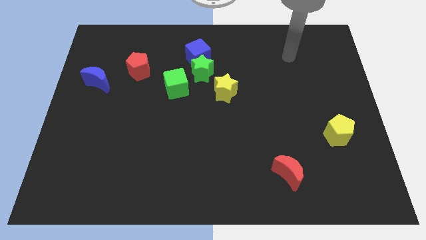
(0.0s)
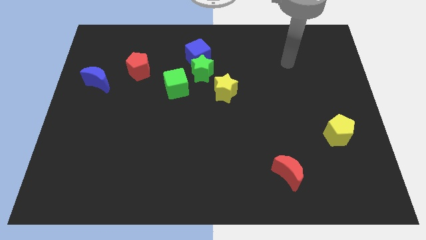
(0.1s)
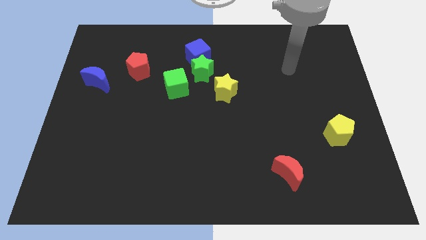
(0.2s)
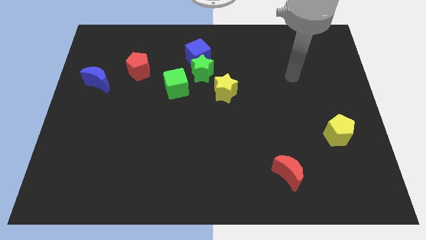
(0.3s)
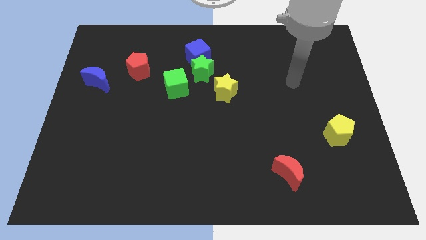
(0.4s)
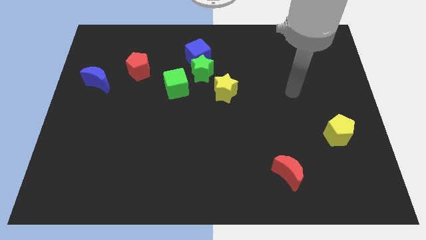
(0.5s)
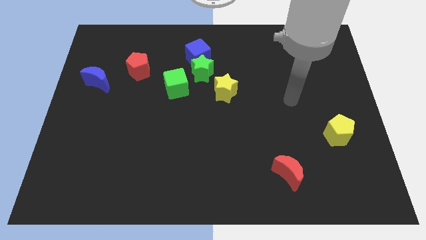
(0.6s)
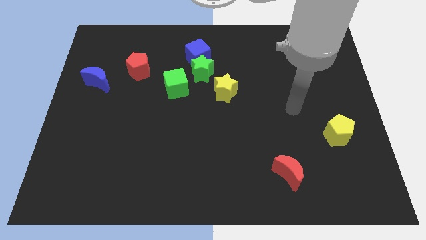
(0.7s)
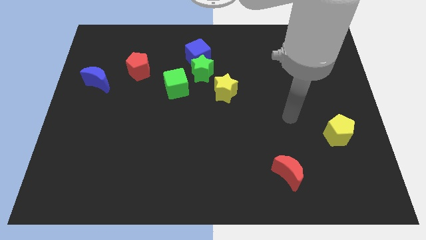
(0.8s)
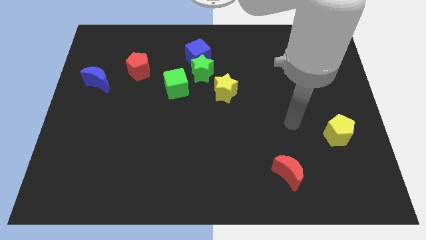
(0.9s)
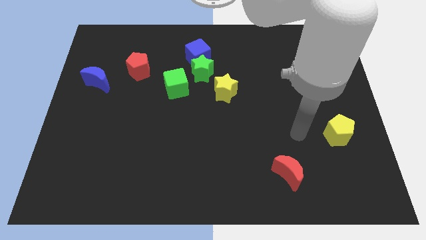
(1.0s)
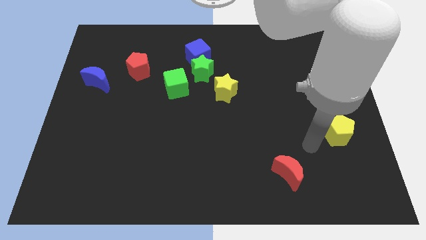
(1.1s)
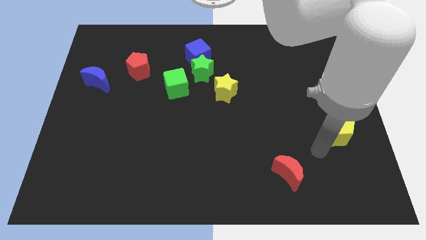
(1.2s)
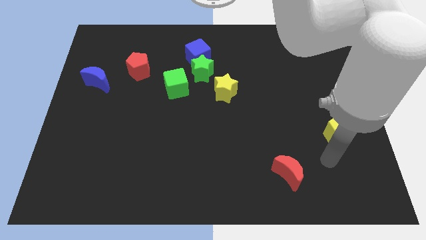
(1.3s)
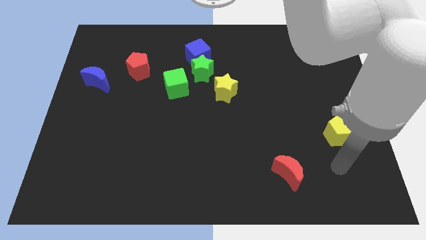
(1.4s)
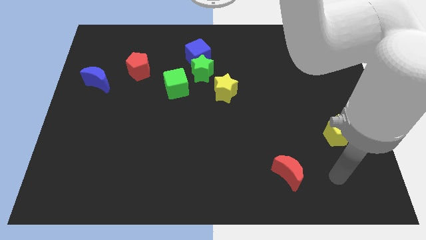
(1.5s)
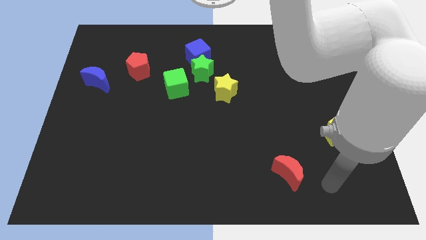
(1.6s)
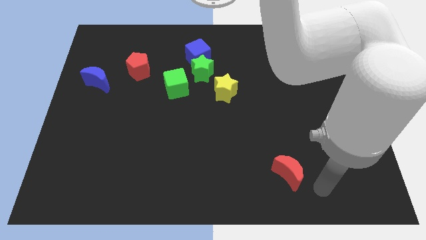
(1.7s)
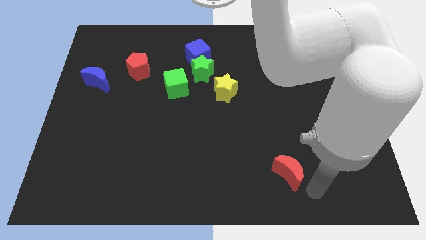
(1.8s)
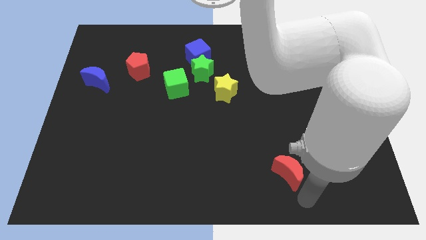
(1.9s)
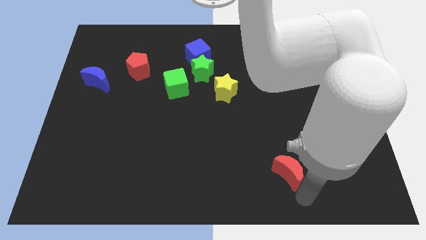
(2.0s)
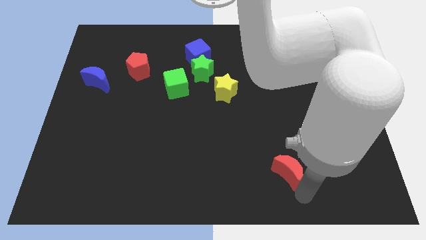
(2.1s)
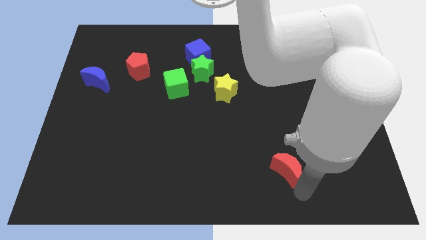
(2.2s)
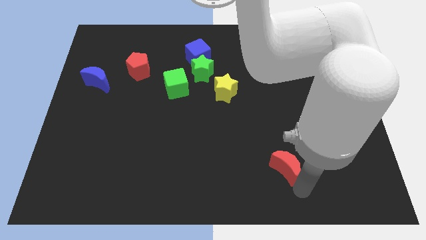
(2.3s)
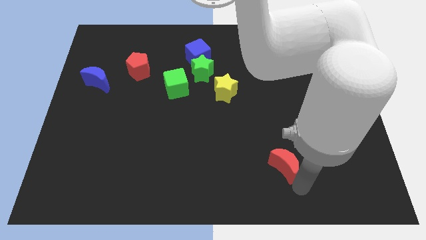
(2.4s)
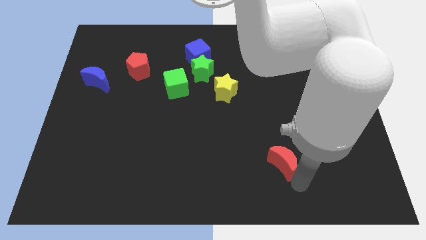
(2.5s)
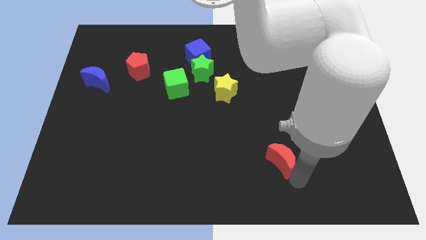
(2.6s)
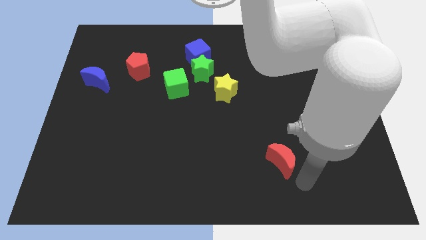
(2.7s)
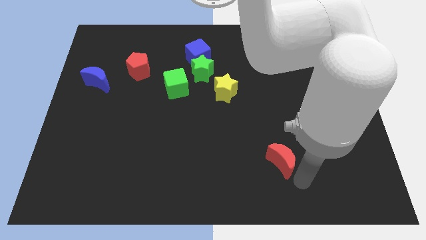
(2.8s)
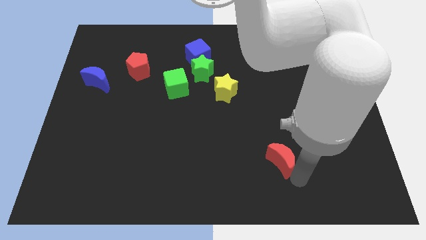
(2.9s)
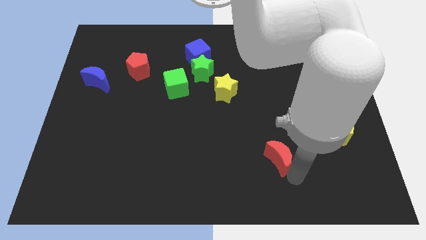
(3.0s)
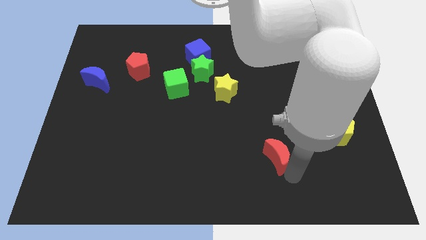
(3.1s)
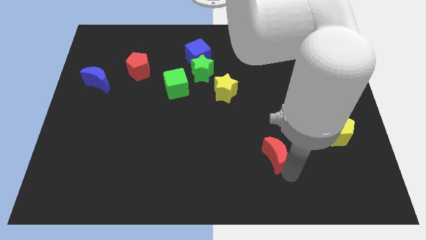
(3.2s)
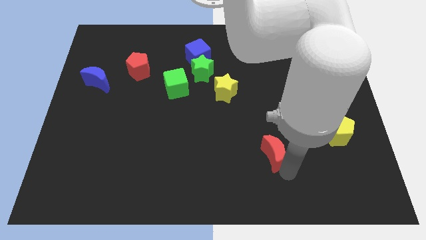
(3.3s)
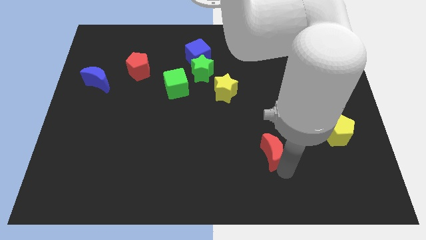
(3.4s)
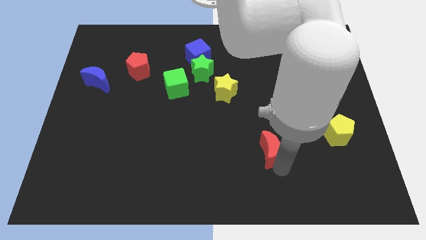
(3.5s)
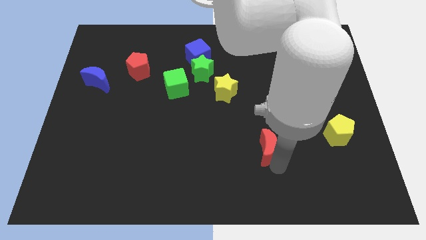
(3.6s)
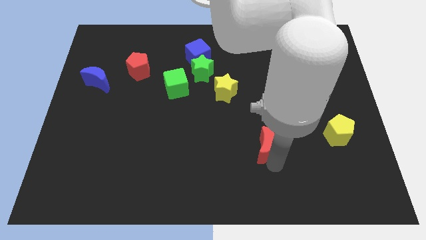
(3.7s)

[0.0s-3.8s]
push the red moon diagonally up and to the left slightly

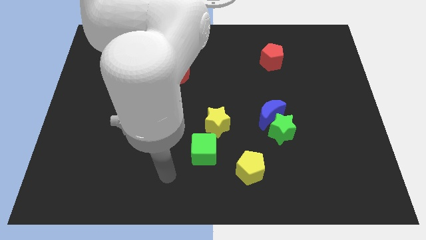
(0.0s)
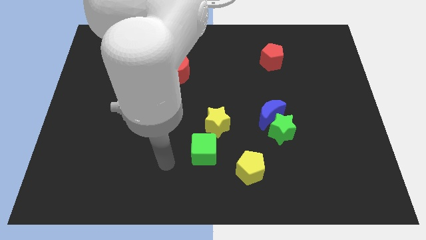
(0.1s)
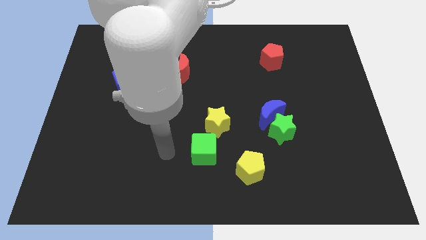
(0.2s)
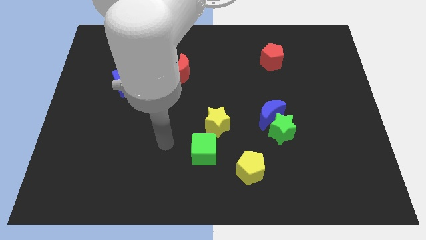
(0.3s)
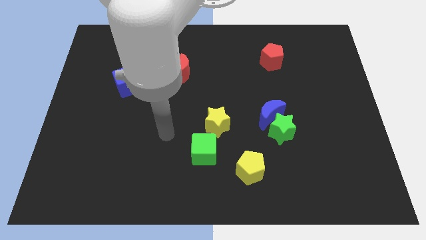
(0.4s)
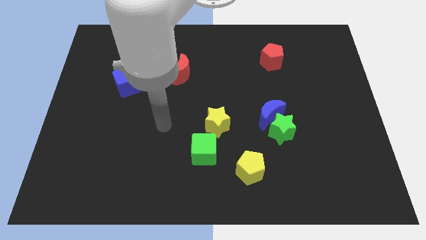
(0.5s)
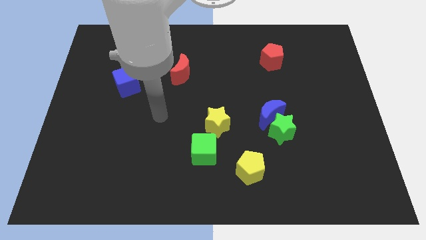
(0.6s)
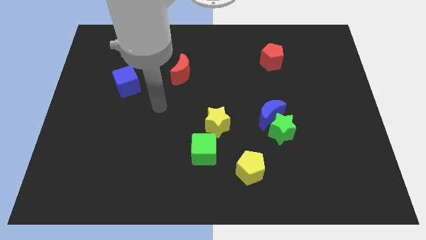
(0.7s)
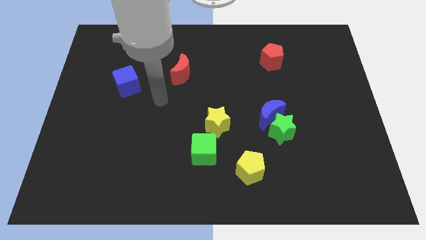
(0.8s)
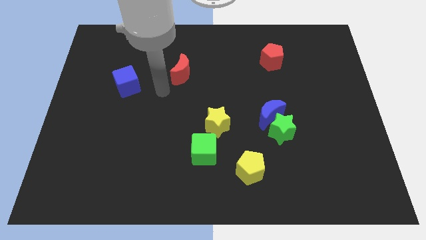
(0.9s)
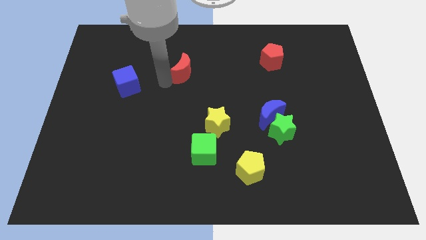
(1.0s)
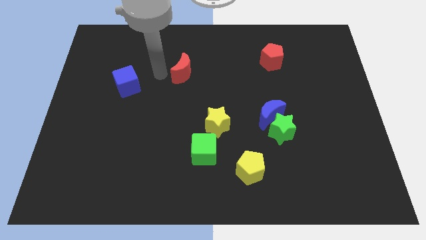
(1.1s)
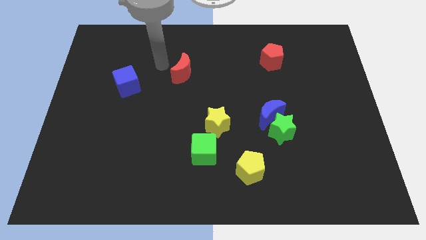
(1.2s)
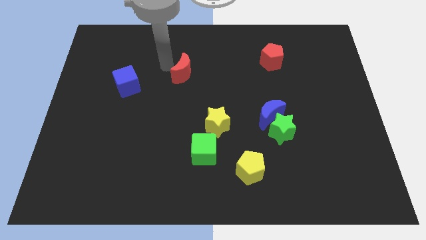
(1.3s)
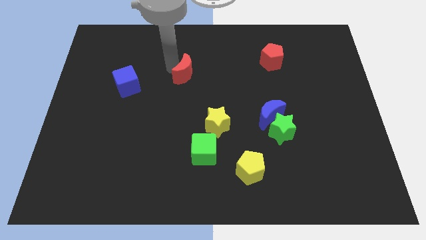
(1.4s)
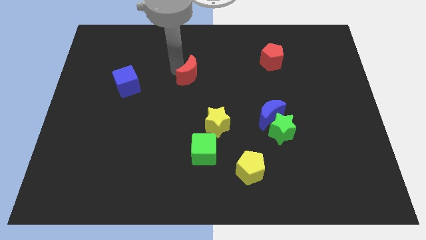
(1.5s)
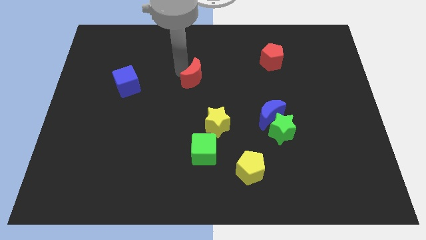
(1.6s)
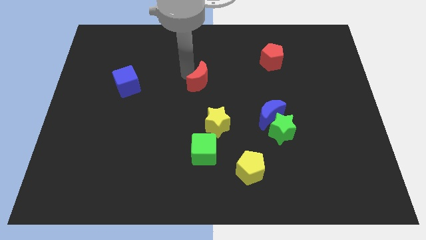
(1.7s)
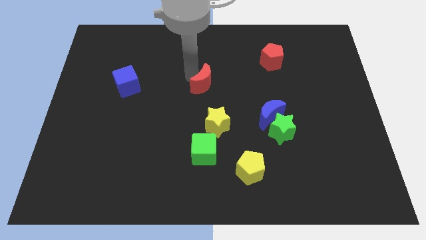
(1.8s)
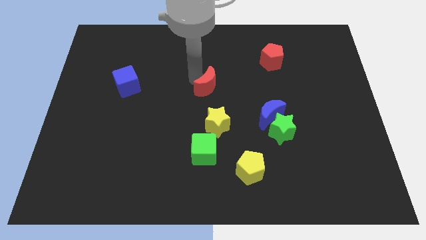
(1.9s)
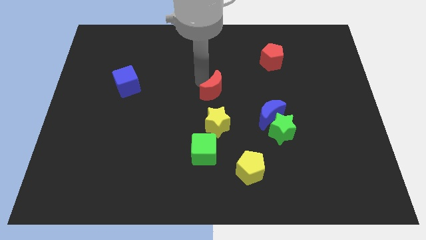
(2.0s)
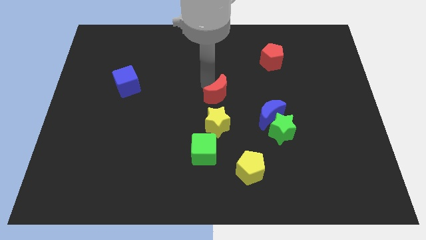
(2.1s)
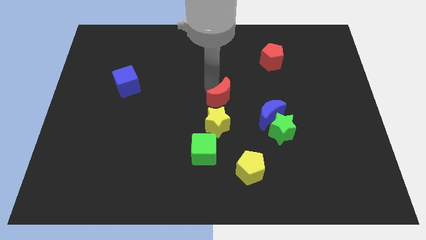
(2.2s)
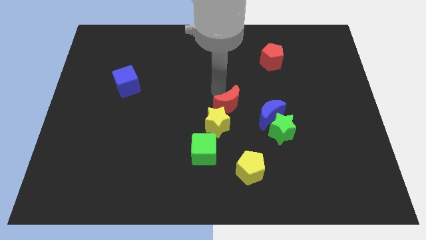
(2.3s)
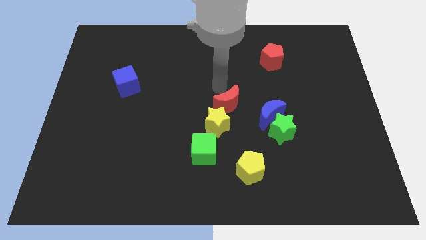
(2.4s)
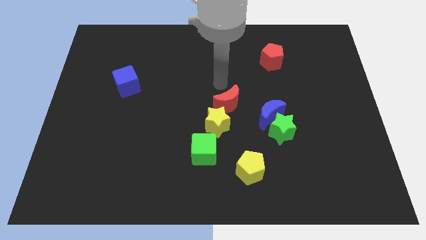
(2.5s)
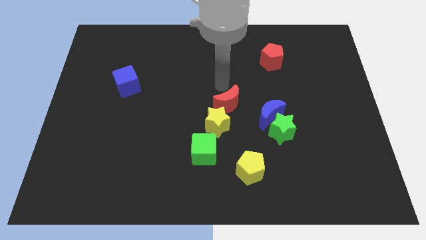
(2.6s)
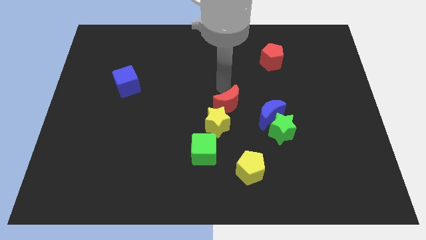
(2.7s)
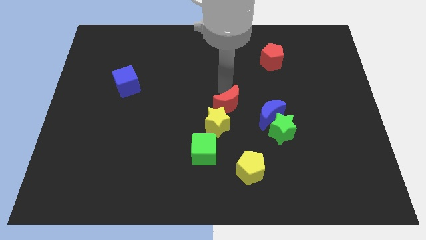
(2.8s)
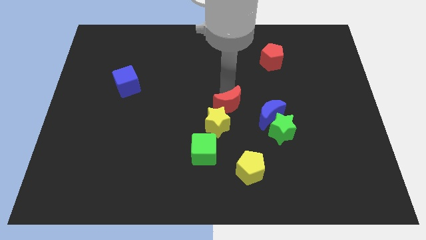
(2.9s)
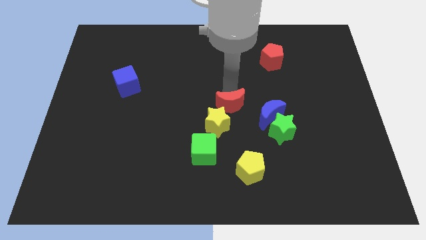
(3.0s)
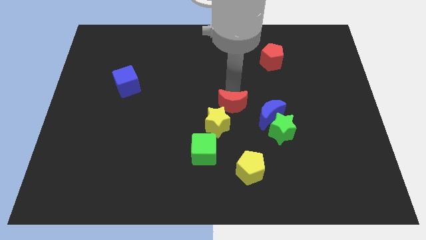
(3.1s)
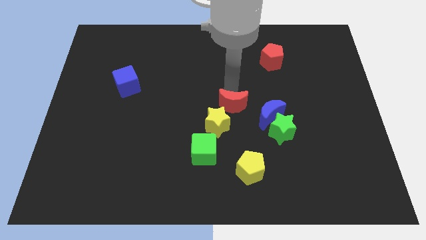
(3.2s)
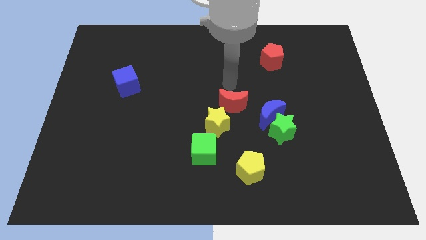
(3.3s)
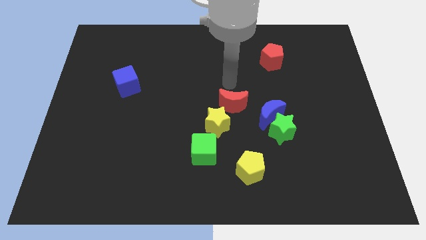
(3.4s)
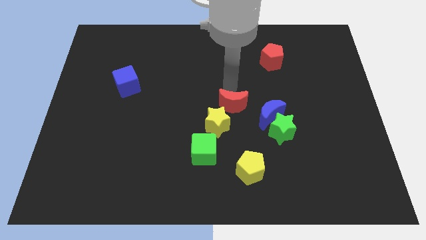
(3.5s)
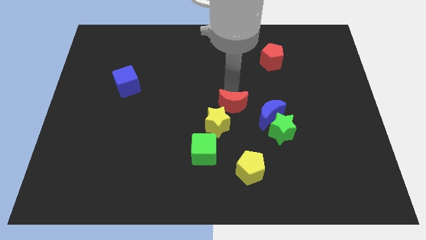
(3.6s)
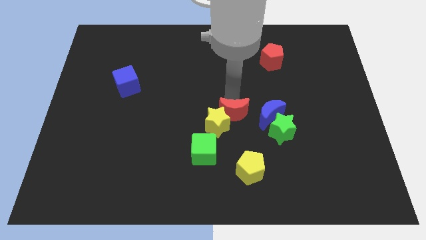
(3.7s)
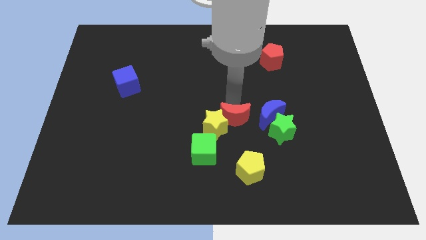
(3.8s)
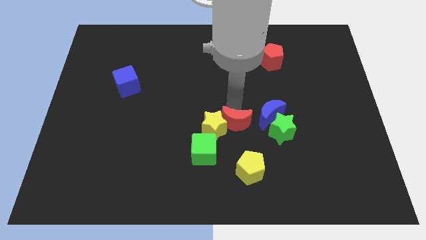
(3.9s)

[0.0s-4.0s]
push the red moon diagonally down and right

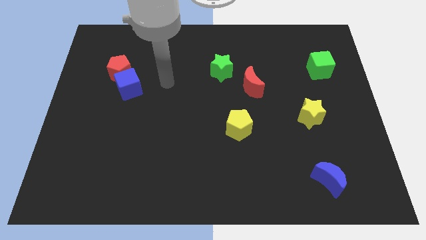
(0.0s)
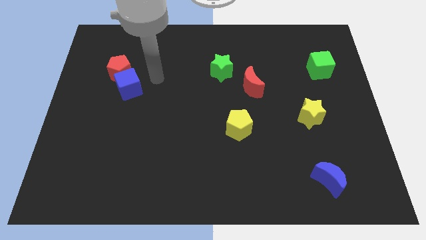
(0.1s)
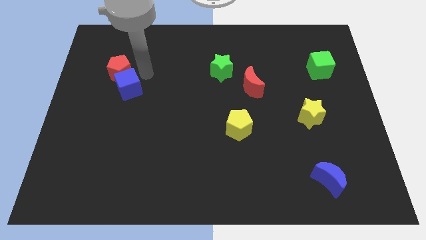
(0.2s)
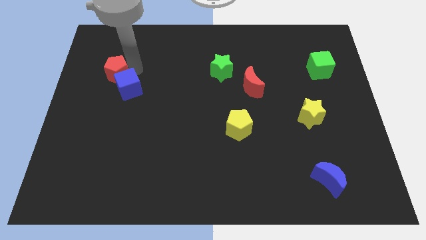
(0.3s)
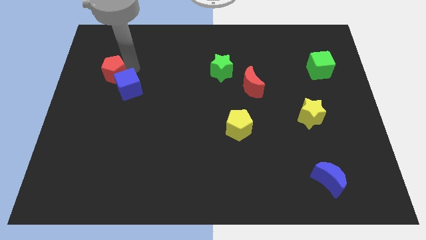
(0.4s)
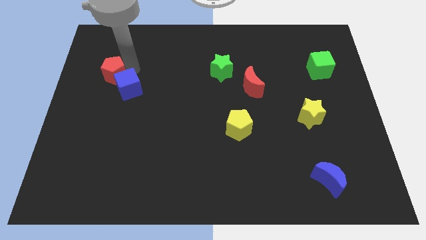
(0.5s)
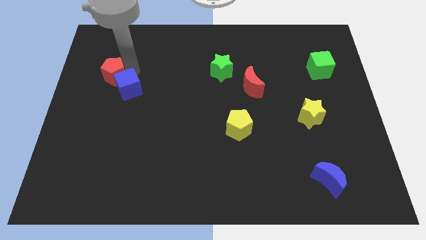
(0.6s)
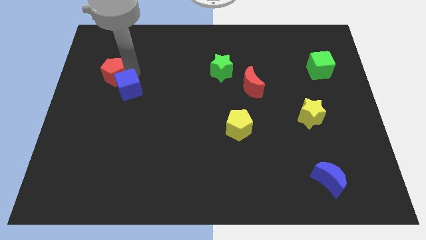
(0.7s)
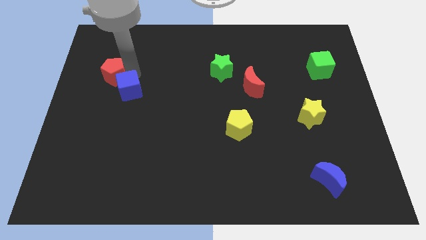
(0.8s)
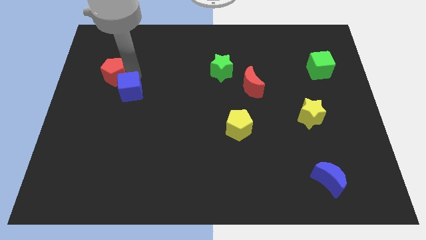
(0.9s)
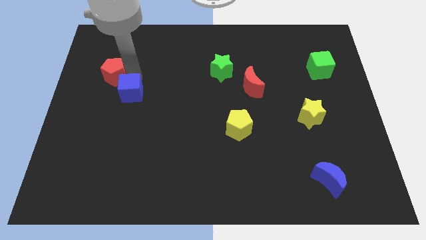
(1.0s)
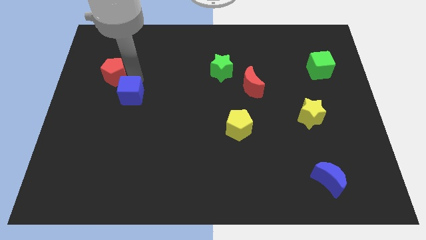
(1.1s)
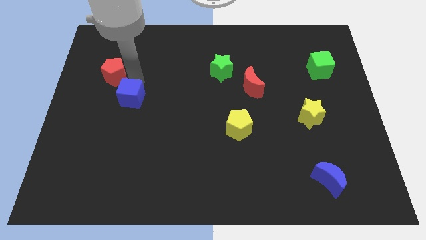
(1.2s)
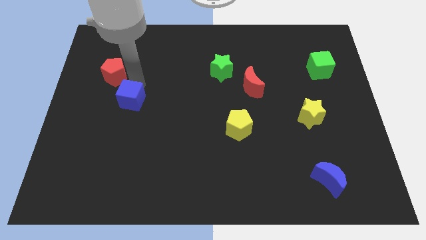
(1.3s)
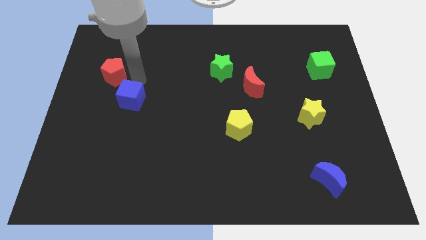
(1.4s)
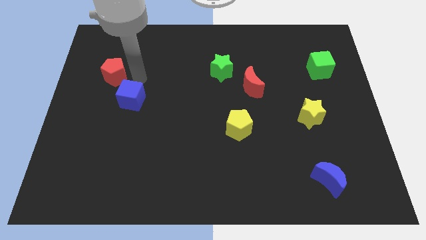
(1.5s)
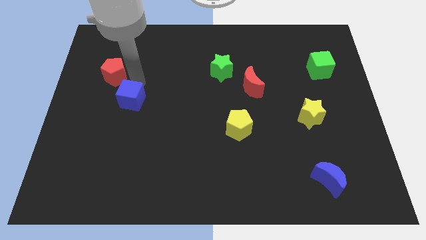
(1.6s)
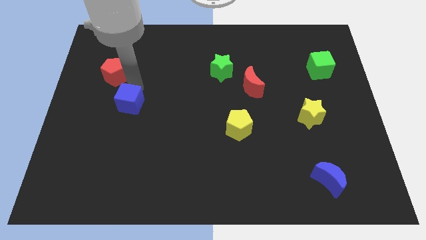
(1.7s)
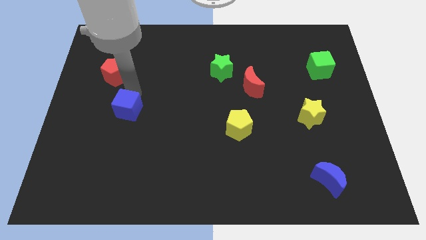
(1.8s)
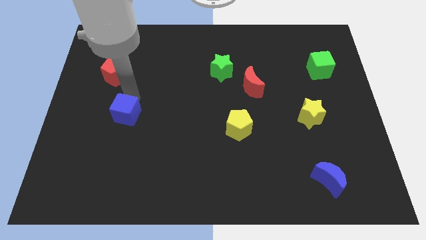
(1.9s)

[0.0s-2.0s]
slightly slide the blue cube down
